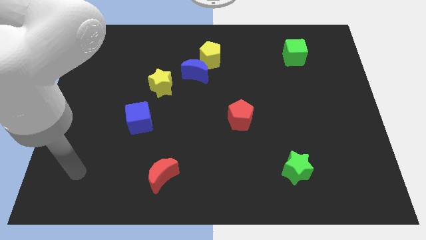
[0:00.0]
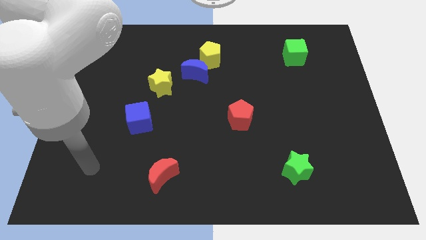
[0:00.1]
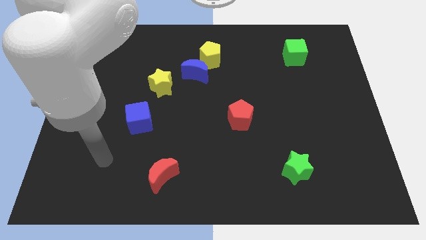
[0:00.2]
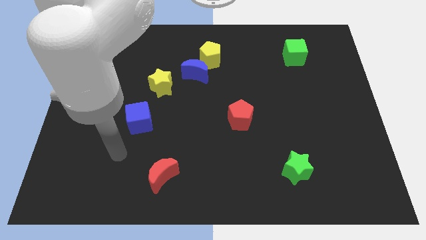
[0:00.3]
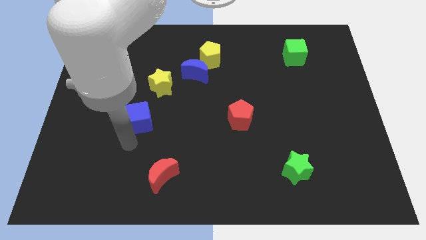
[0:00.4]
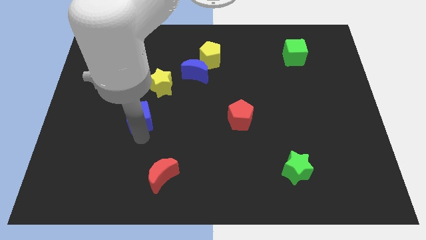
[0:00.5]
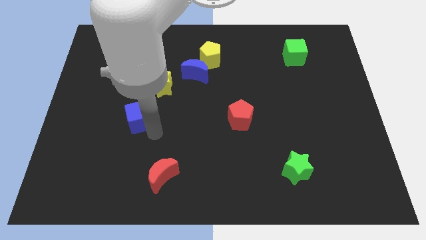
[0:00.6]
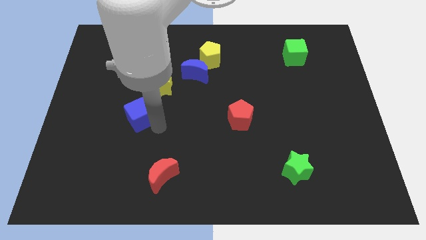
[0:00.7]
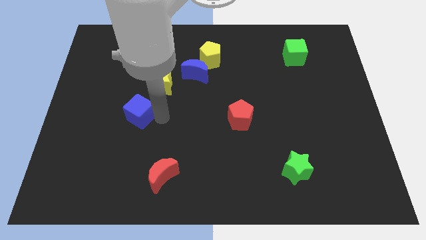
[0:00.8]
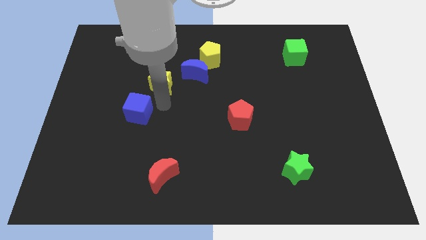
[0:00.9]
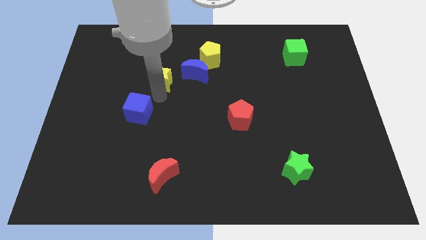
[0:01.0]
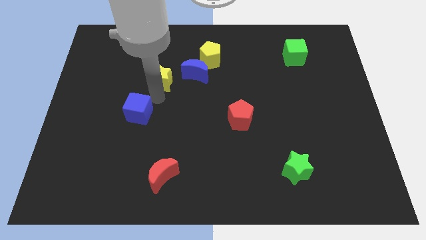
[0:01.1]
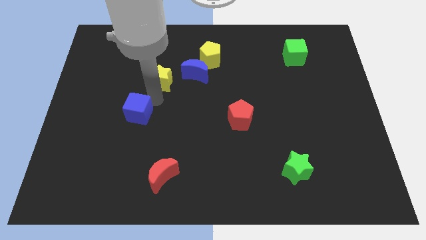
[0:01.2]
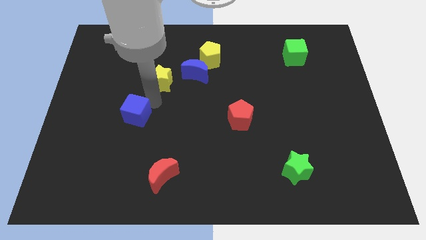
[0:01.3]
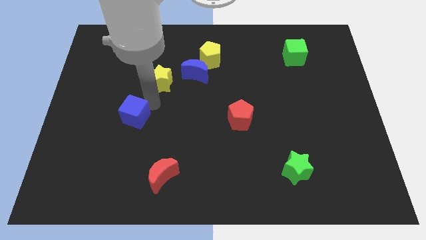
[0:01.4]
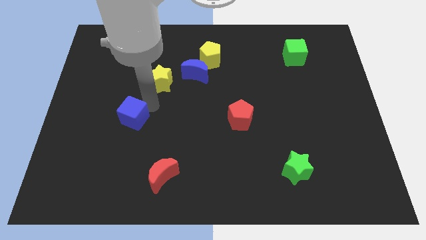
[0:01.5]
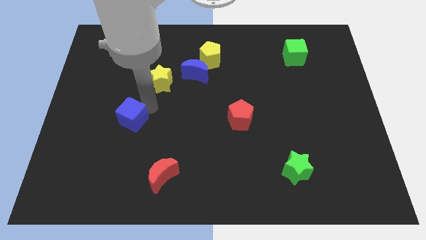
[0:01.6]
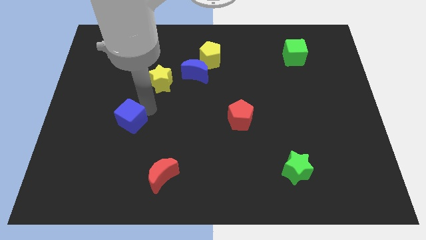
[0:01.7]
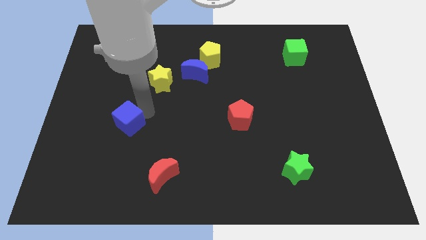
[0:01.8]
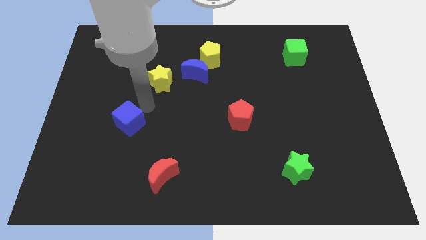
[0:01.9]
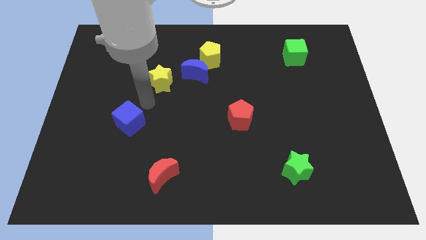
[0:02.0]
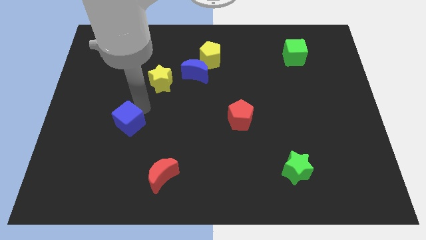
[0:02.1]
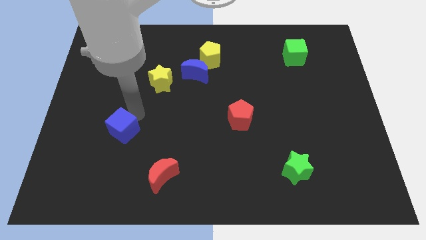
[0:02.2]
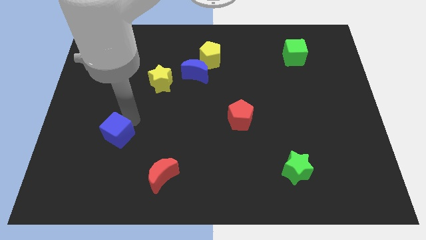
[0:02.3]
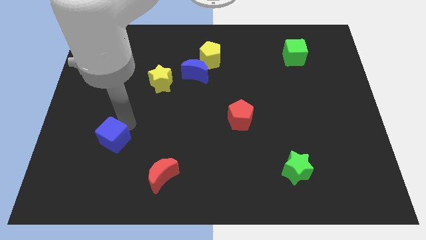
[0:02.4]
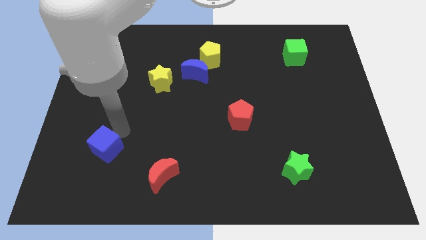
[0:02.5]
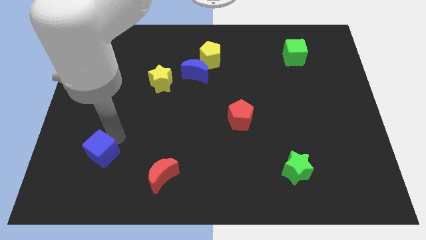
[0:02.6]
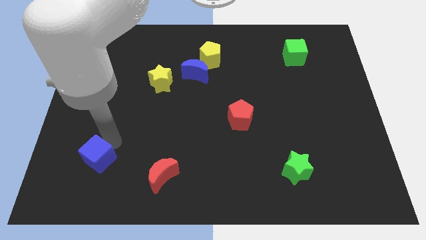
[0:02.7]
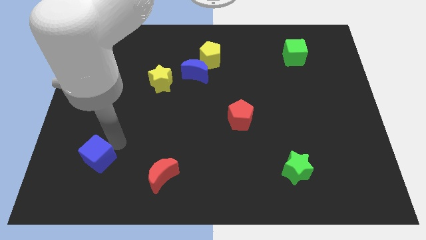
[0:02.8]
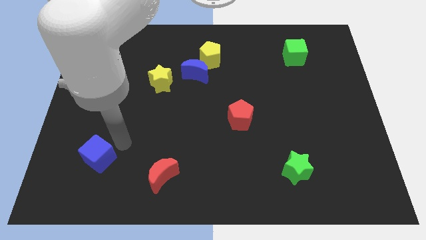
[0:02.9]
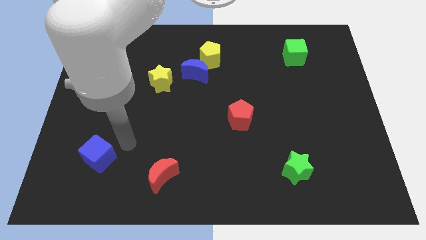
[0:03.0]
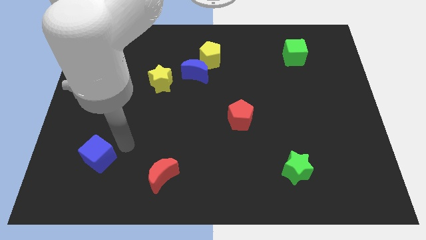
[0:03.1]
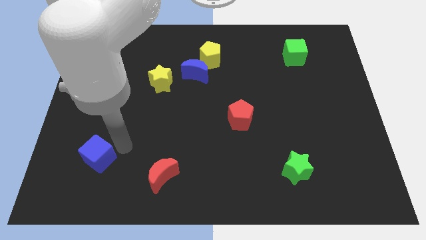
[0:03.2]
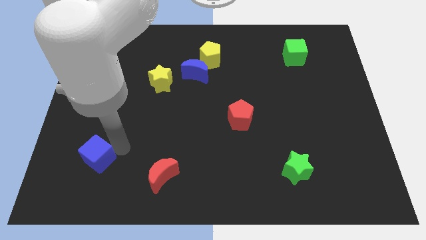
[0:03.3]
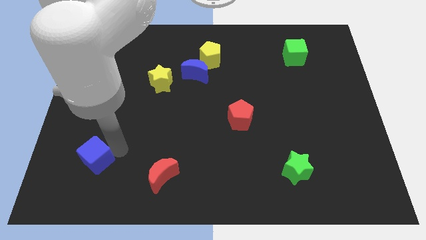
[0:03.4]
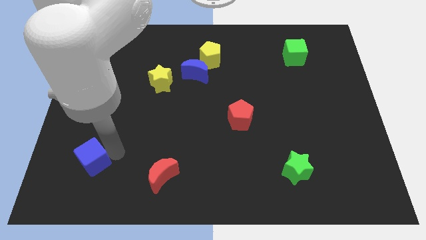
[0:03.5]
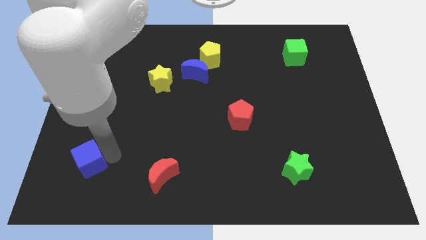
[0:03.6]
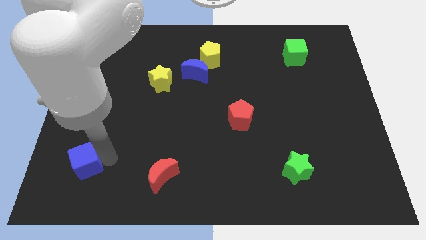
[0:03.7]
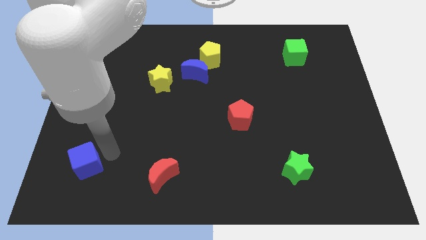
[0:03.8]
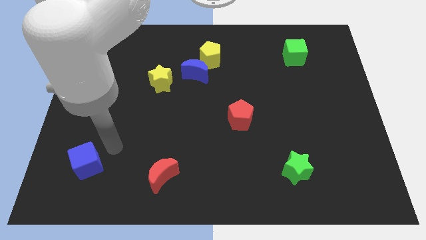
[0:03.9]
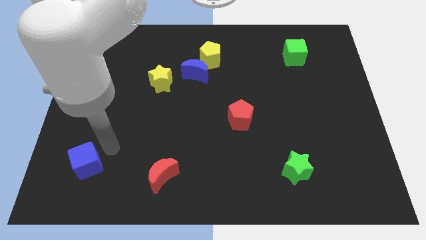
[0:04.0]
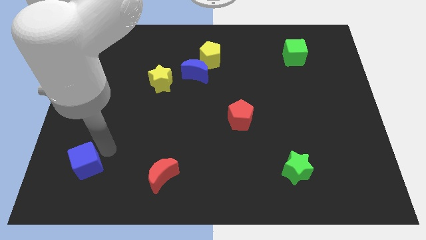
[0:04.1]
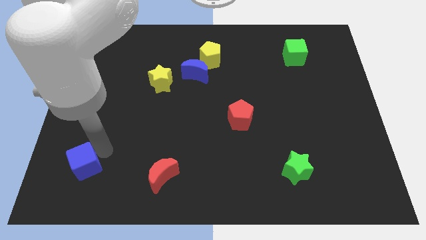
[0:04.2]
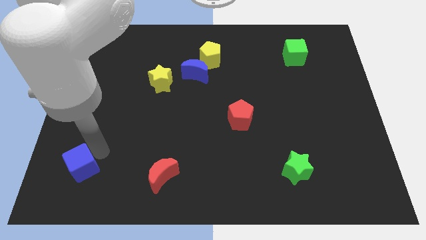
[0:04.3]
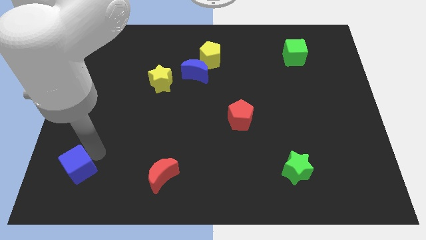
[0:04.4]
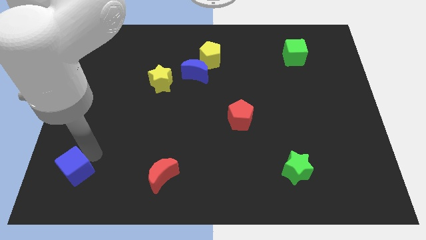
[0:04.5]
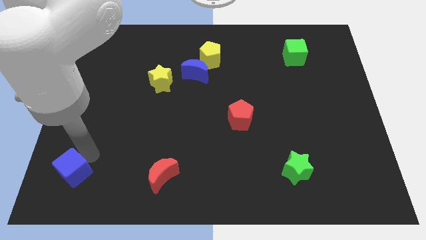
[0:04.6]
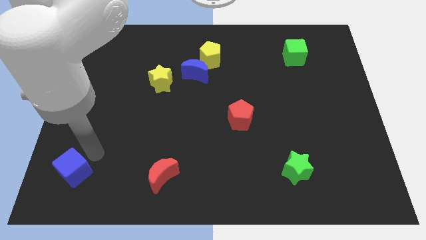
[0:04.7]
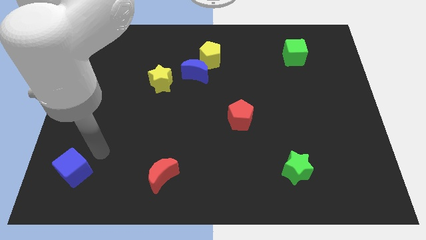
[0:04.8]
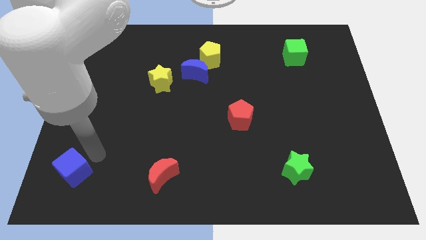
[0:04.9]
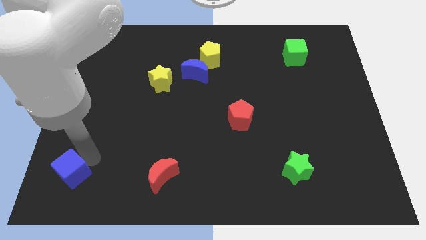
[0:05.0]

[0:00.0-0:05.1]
put the blue cube to the lower left corner
